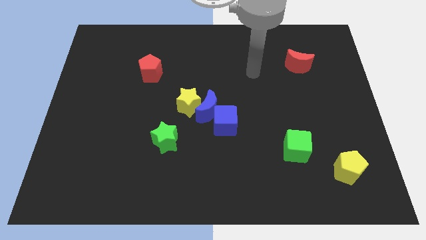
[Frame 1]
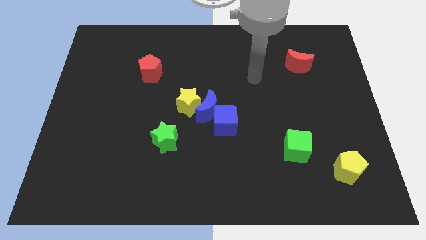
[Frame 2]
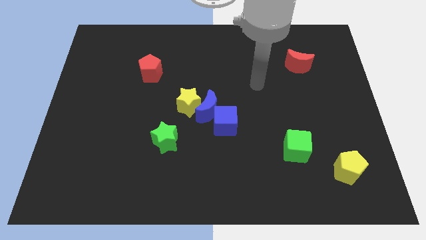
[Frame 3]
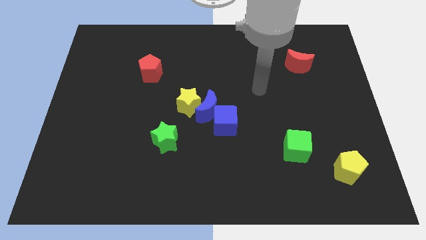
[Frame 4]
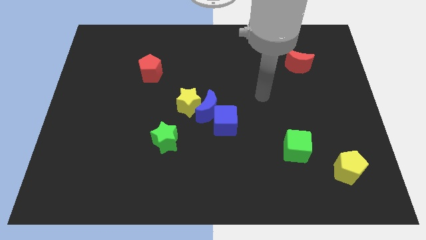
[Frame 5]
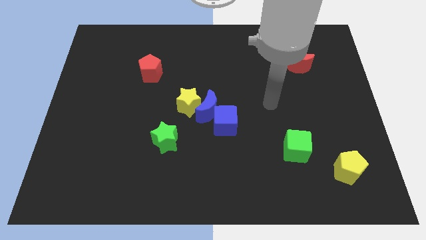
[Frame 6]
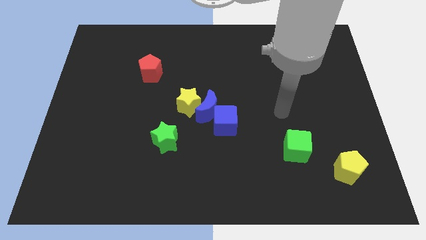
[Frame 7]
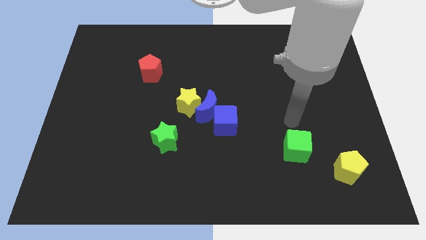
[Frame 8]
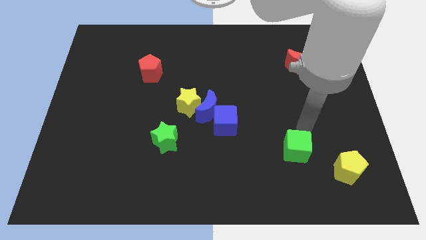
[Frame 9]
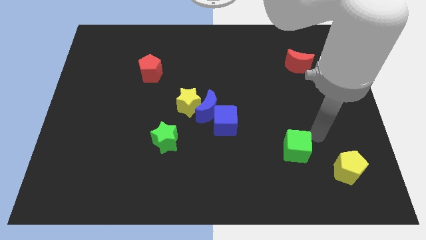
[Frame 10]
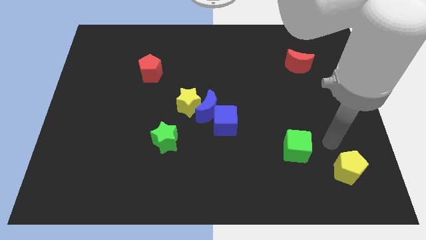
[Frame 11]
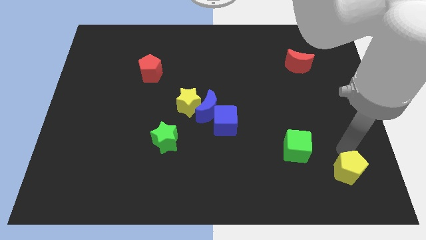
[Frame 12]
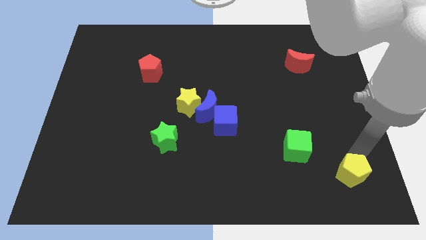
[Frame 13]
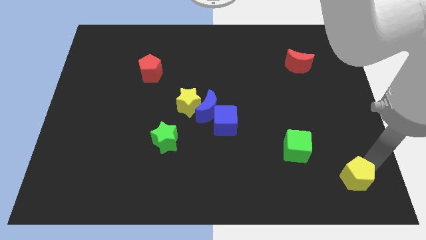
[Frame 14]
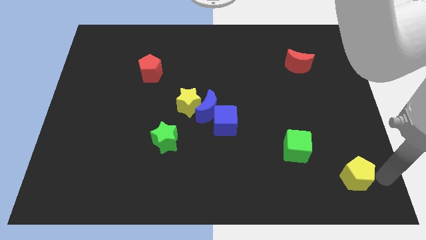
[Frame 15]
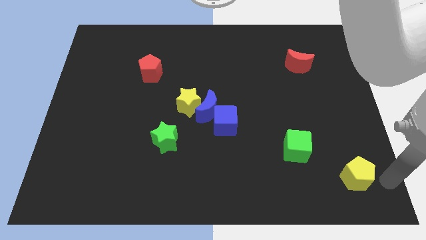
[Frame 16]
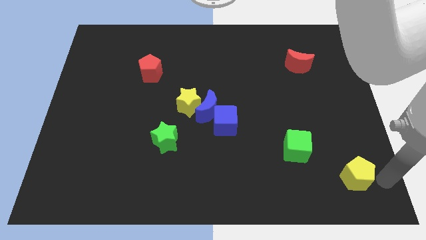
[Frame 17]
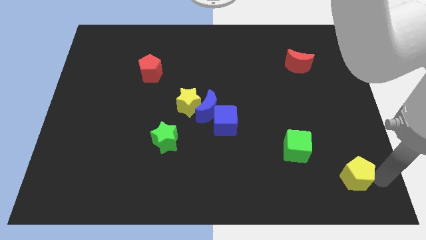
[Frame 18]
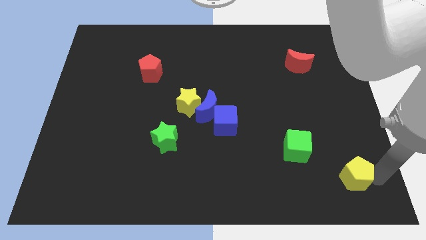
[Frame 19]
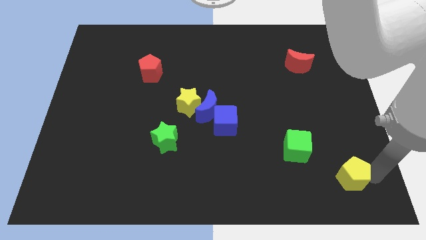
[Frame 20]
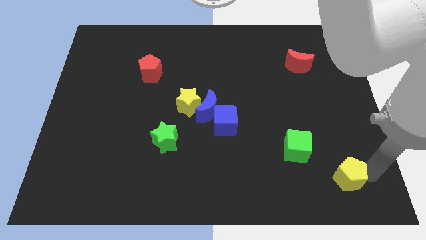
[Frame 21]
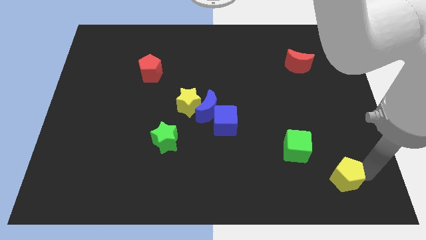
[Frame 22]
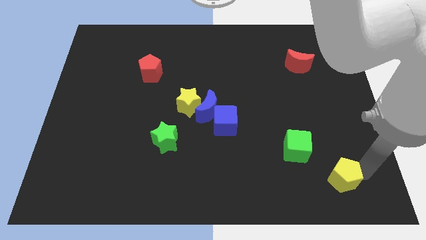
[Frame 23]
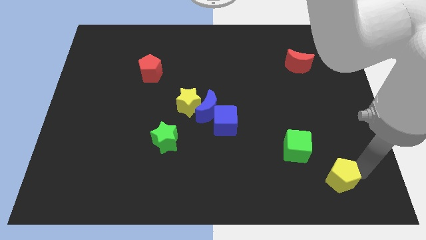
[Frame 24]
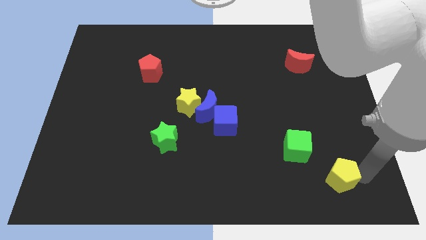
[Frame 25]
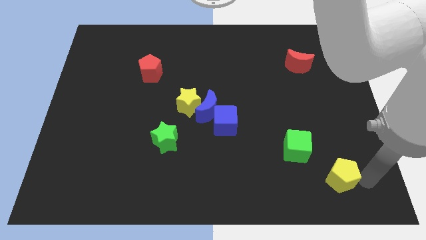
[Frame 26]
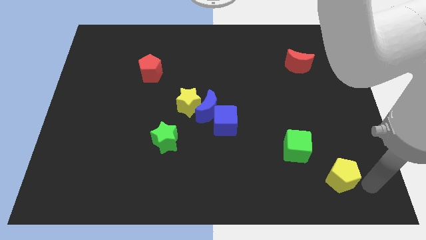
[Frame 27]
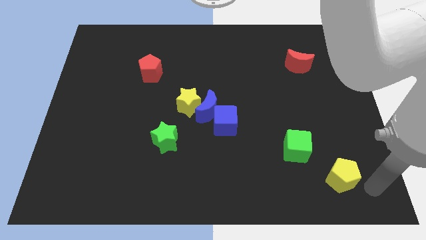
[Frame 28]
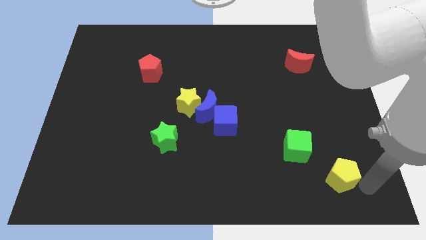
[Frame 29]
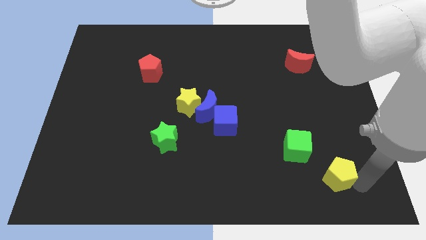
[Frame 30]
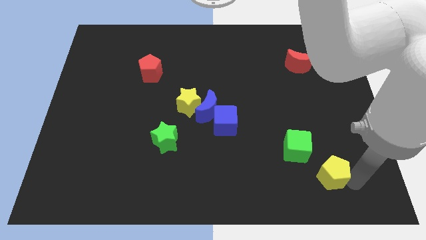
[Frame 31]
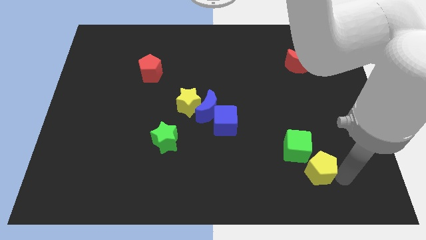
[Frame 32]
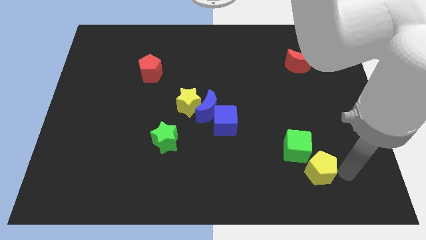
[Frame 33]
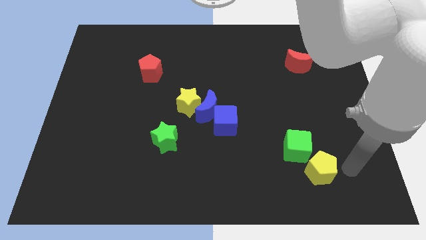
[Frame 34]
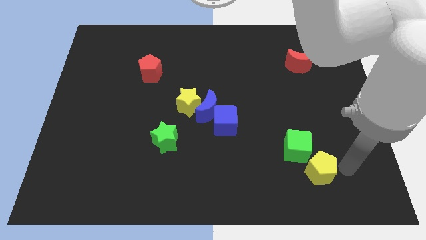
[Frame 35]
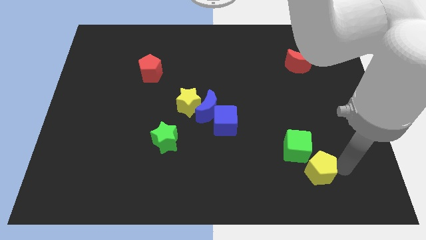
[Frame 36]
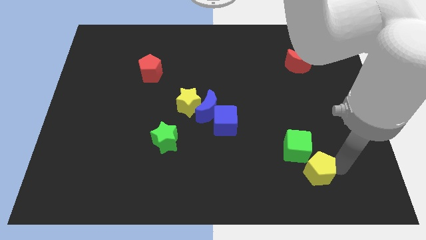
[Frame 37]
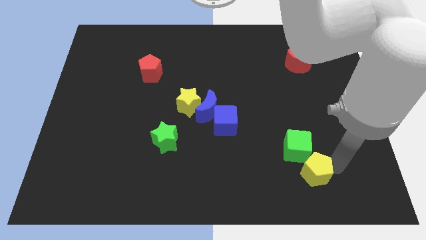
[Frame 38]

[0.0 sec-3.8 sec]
slightly move the yellow pentagon to the left

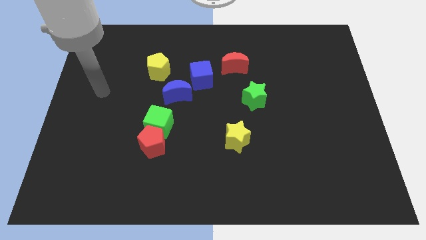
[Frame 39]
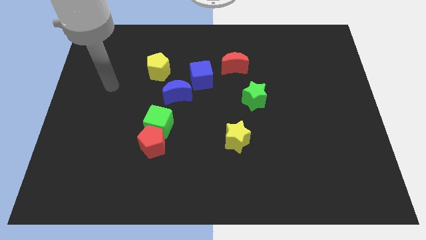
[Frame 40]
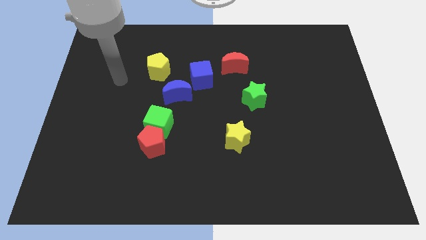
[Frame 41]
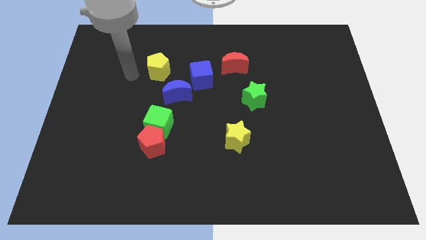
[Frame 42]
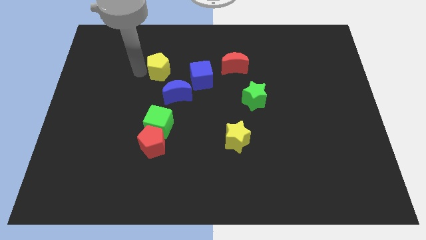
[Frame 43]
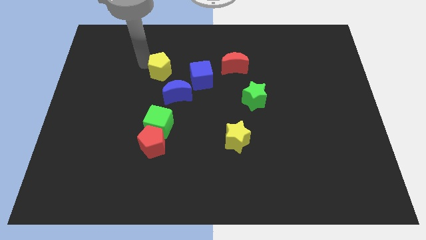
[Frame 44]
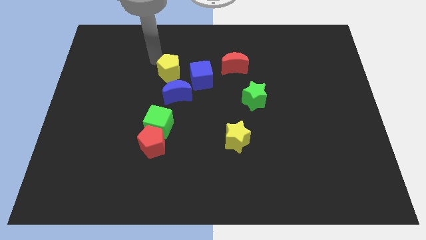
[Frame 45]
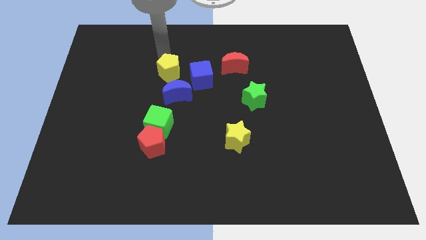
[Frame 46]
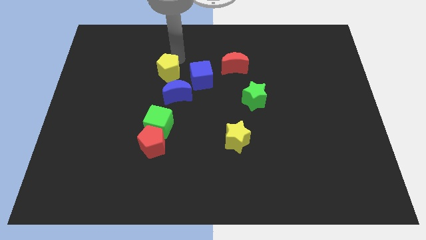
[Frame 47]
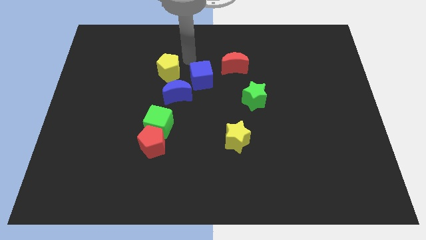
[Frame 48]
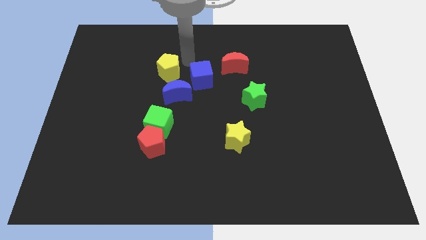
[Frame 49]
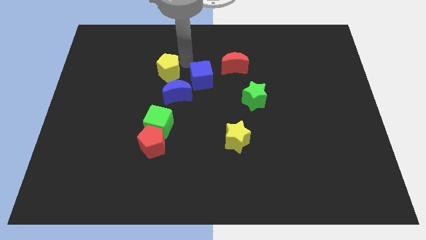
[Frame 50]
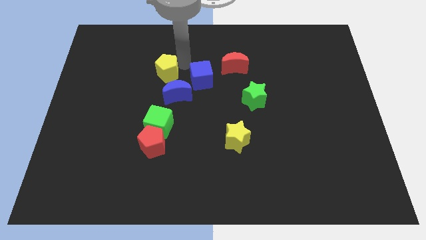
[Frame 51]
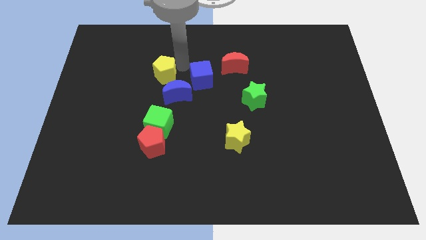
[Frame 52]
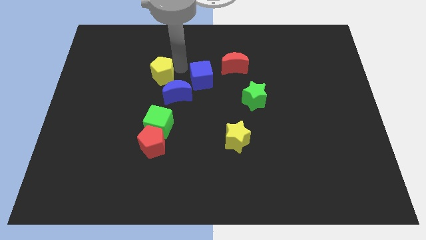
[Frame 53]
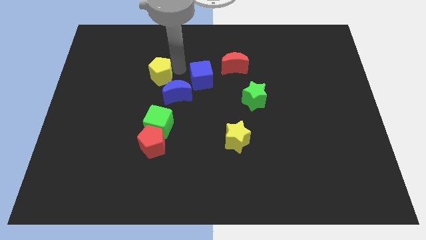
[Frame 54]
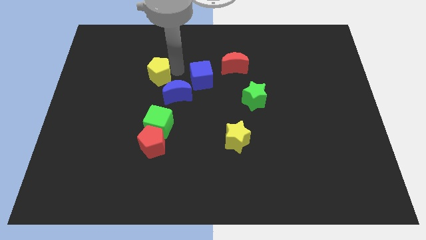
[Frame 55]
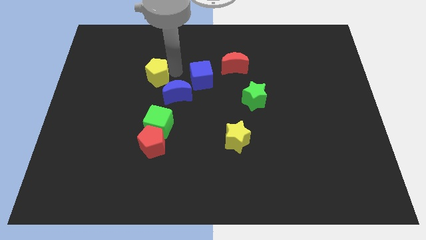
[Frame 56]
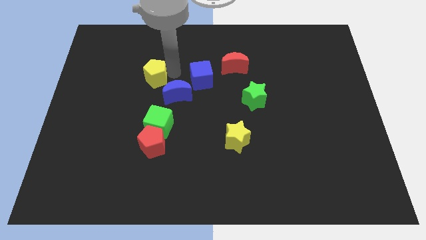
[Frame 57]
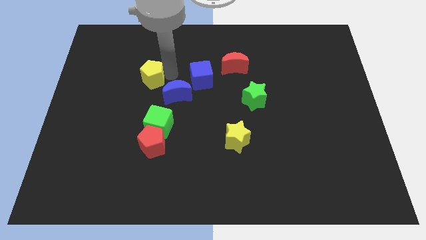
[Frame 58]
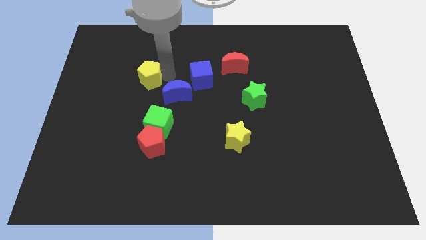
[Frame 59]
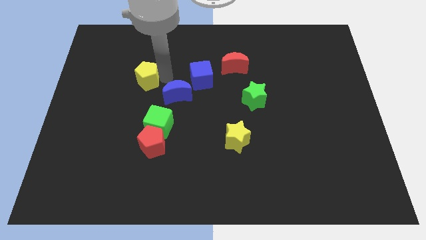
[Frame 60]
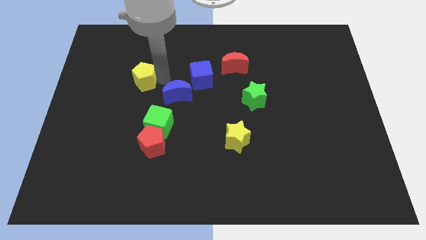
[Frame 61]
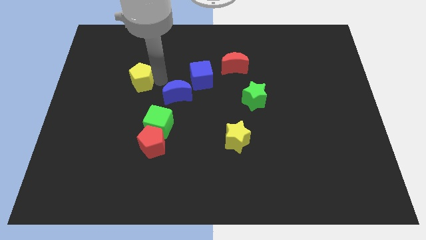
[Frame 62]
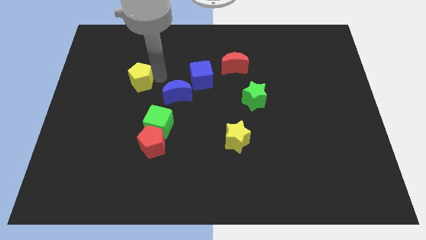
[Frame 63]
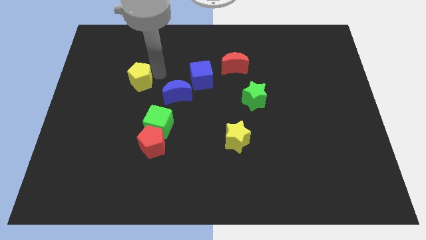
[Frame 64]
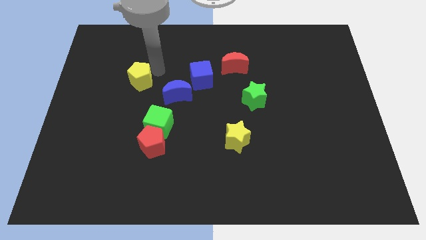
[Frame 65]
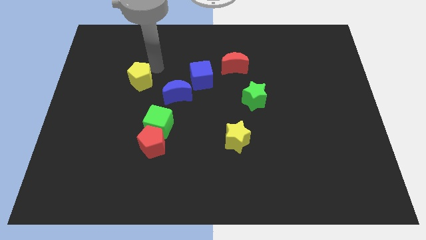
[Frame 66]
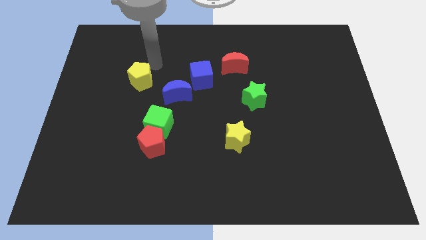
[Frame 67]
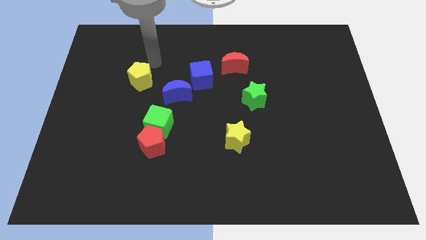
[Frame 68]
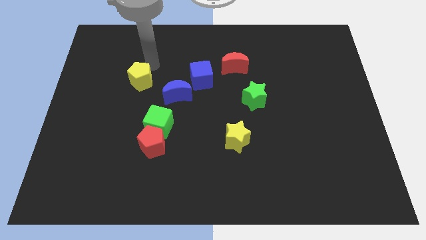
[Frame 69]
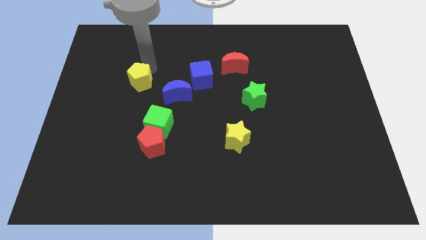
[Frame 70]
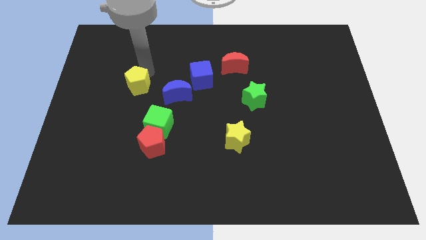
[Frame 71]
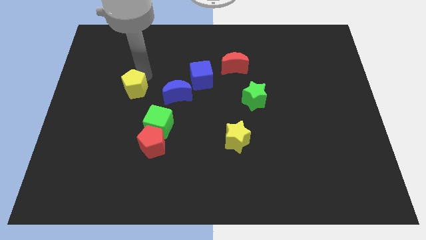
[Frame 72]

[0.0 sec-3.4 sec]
slide the yellow pentagon downwards and then to the left a little

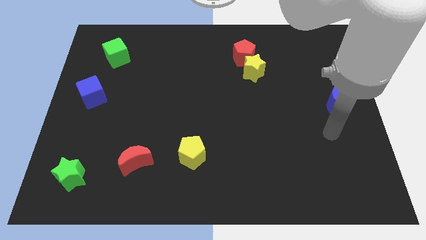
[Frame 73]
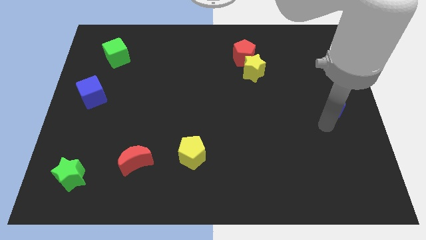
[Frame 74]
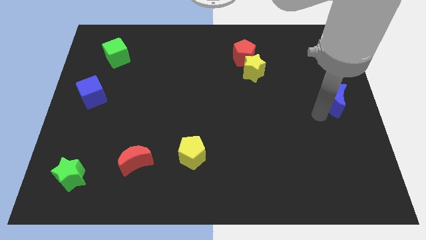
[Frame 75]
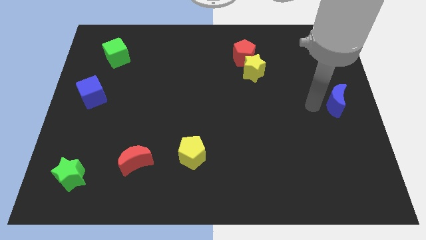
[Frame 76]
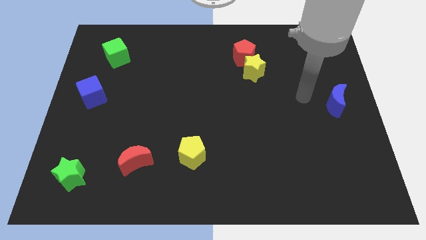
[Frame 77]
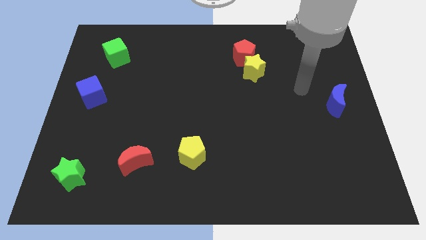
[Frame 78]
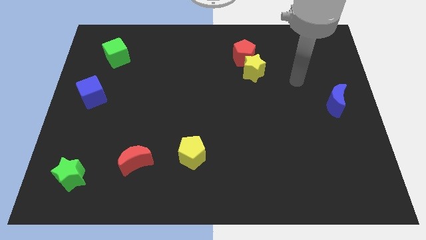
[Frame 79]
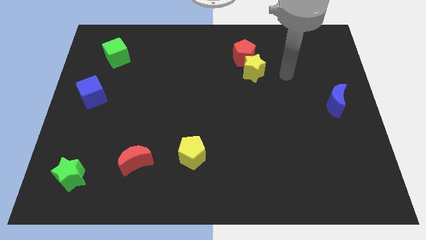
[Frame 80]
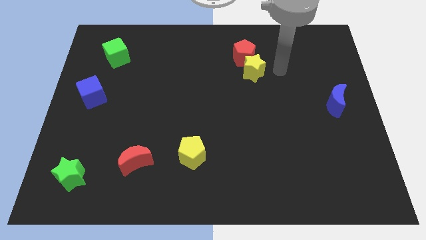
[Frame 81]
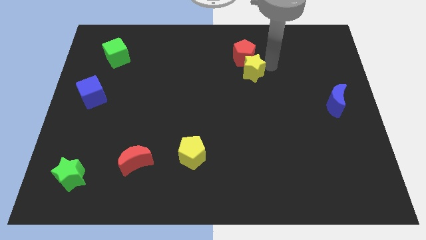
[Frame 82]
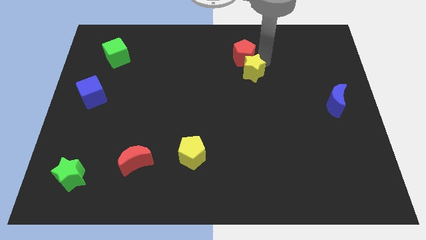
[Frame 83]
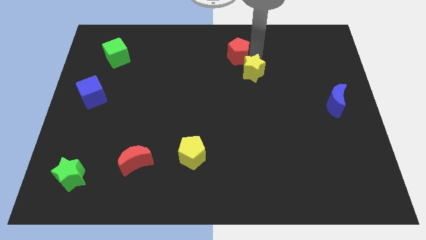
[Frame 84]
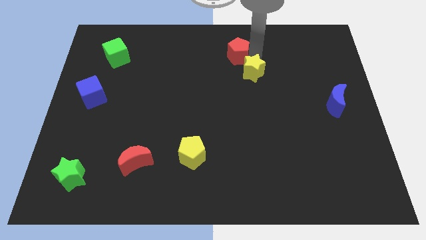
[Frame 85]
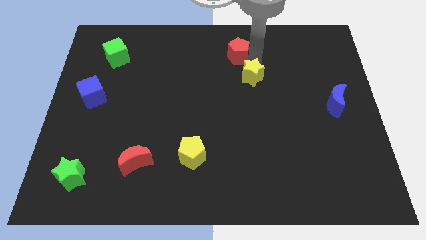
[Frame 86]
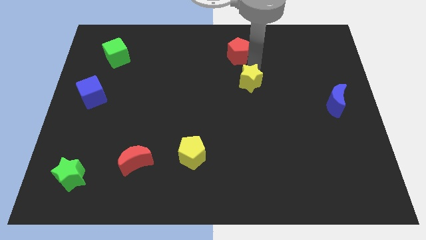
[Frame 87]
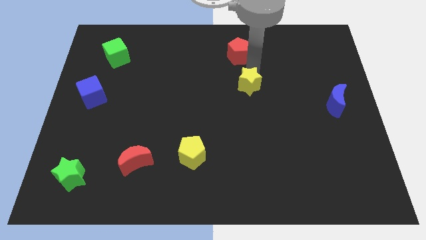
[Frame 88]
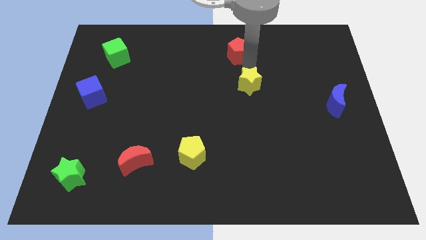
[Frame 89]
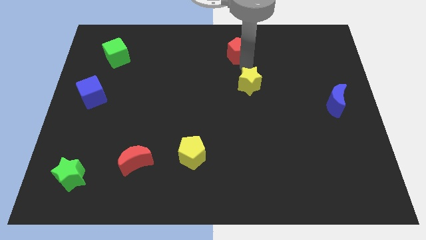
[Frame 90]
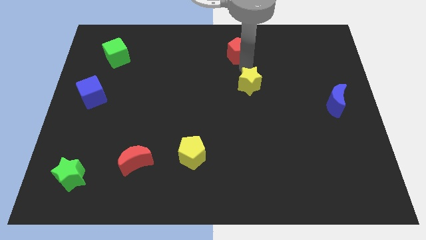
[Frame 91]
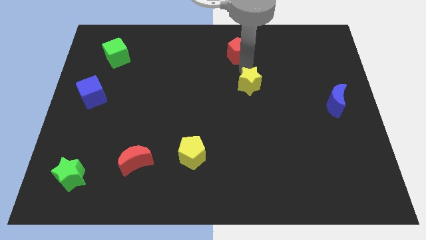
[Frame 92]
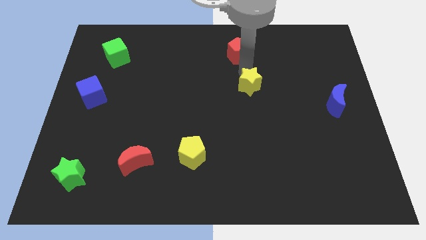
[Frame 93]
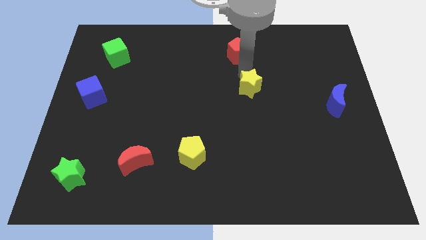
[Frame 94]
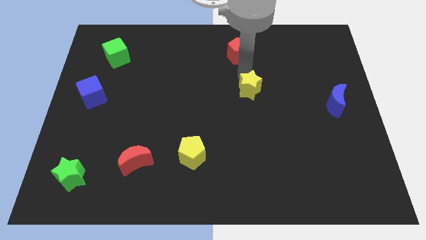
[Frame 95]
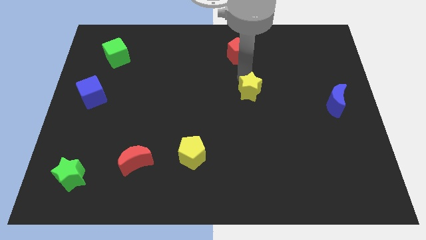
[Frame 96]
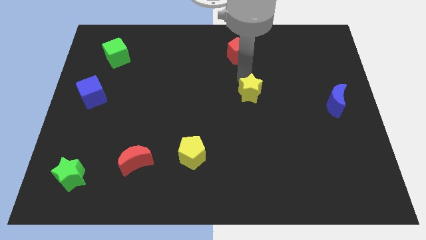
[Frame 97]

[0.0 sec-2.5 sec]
move the yellow star somewhat downwards
